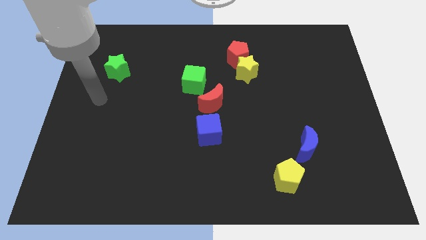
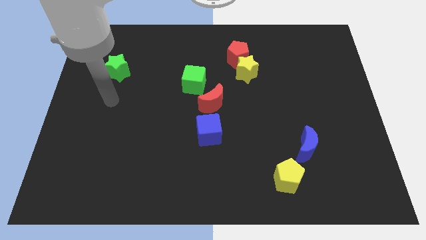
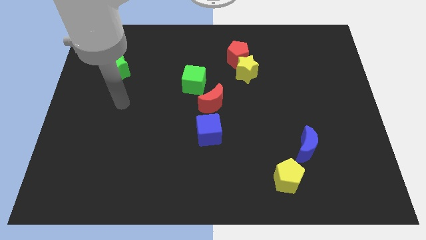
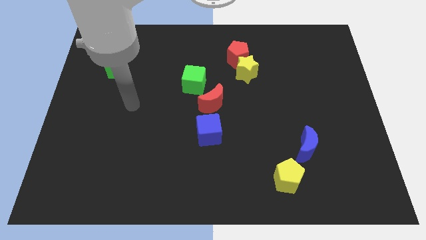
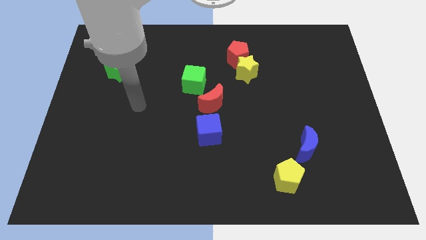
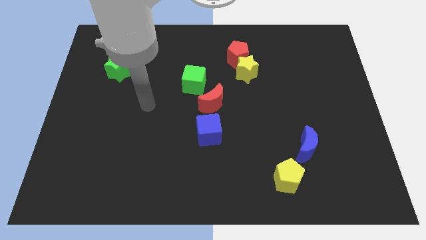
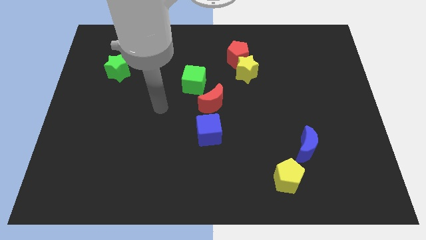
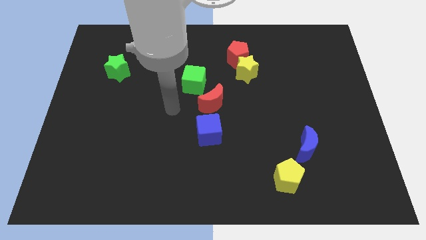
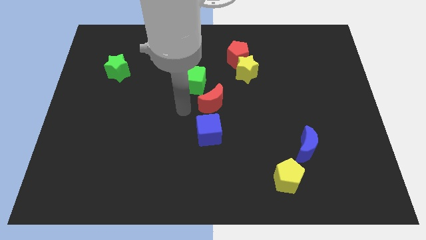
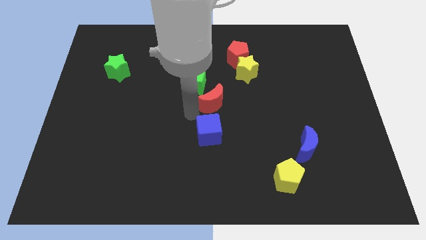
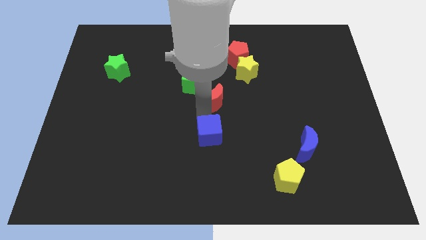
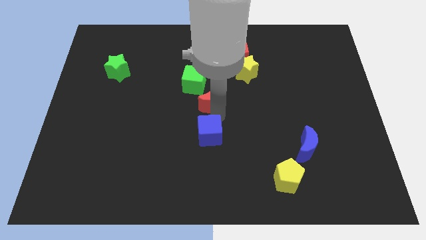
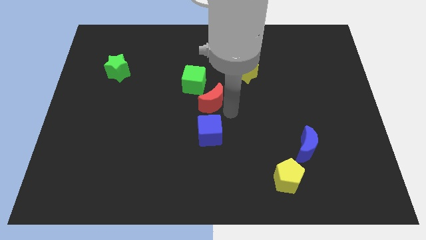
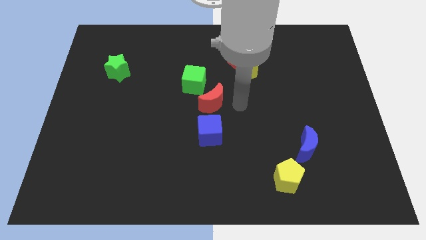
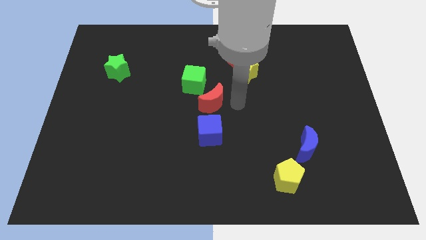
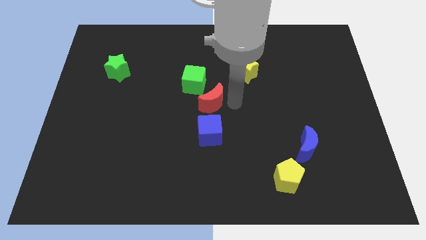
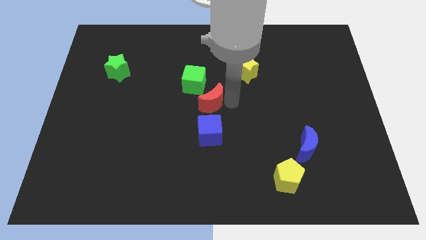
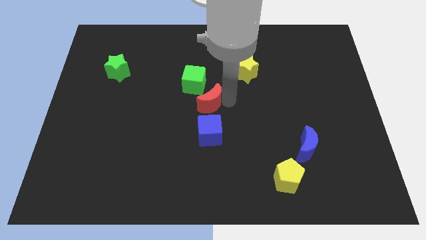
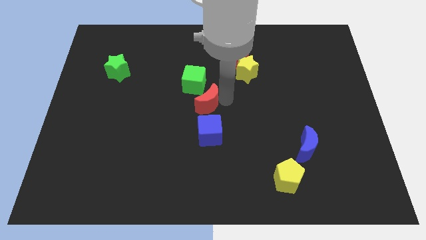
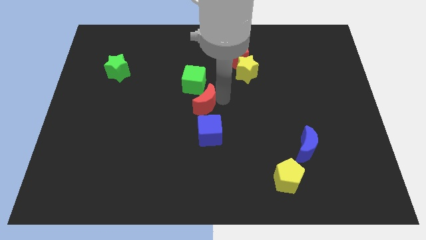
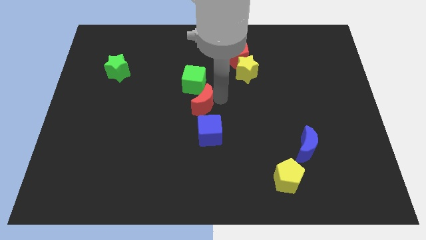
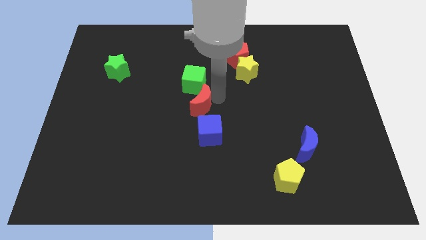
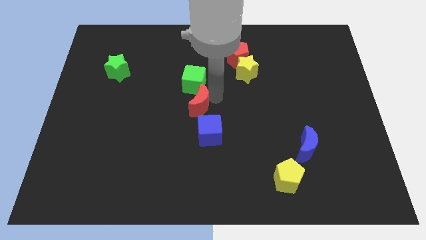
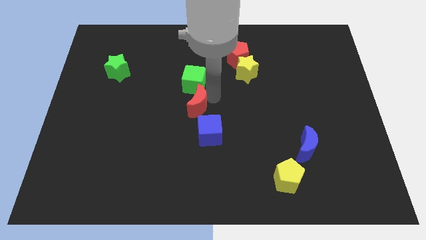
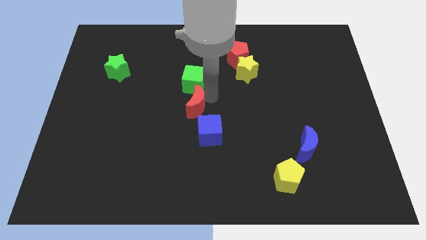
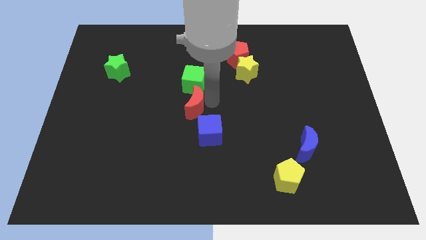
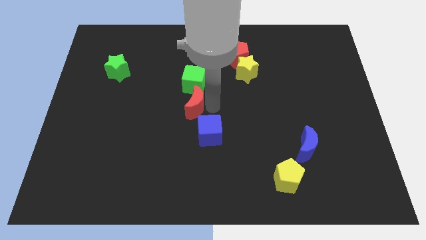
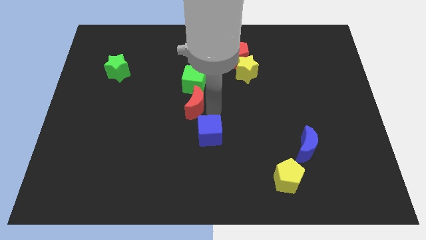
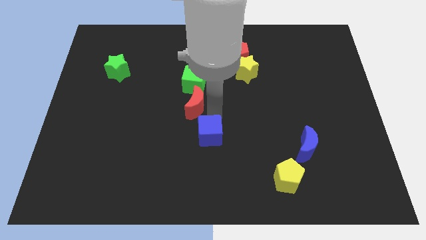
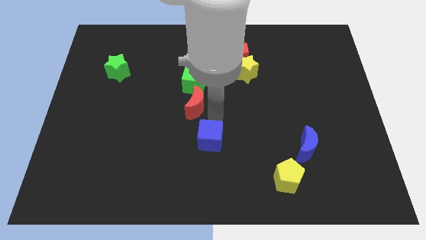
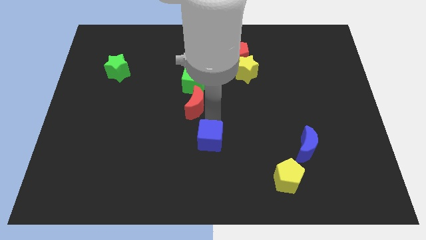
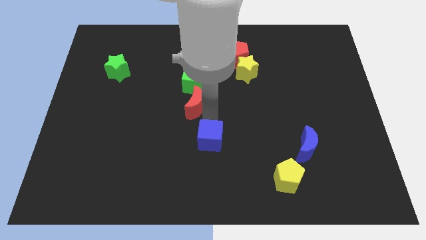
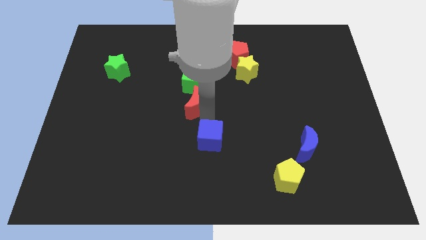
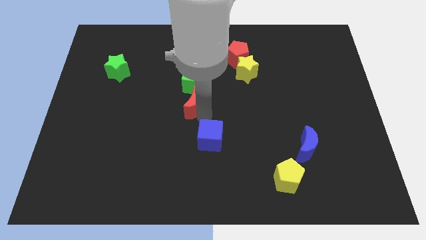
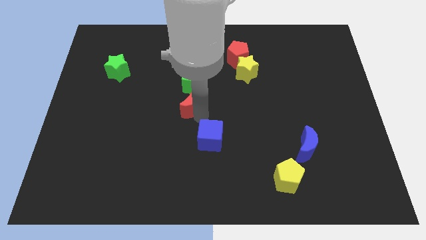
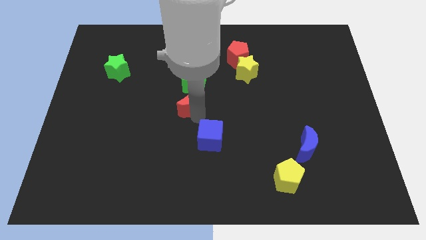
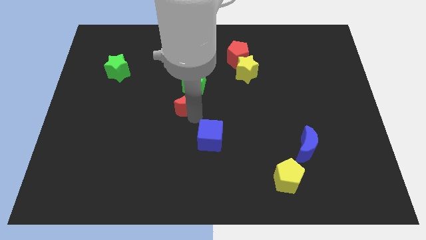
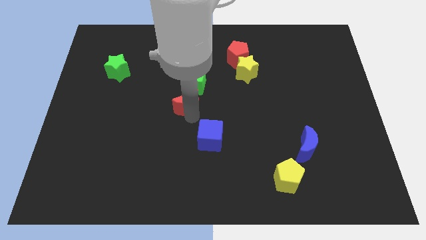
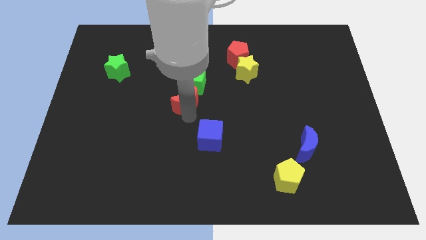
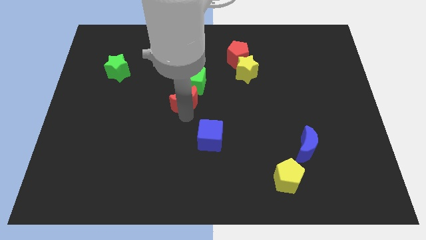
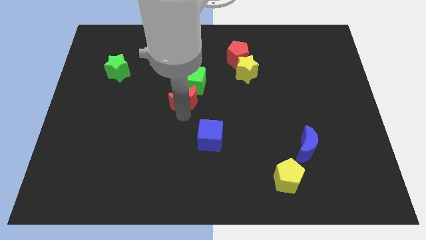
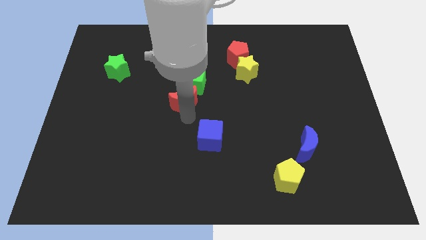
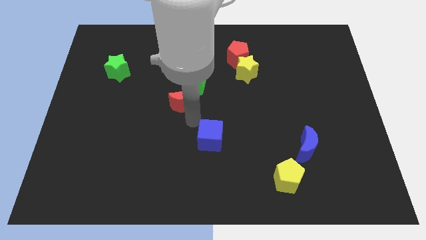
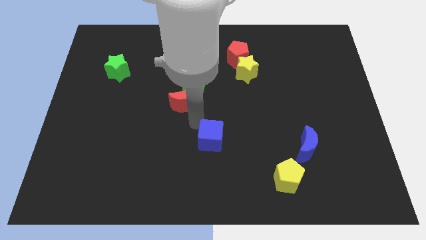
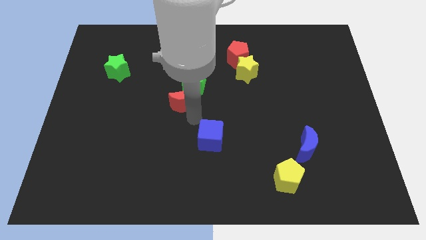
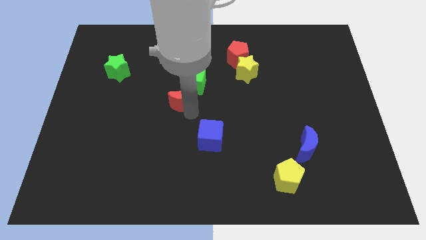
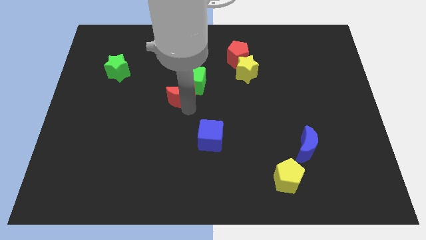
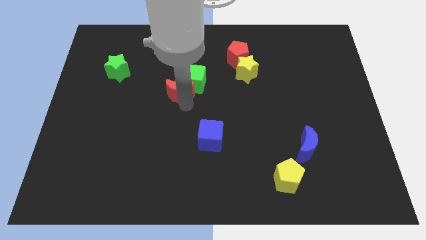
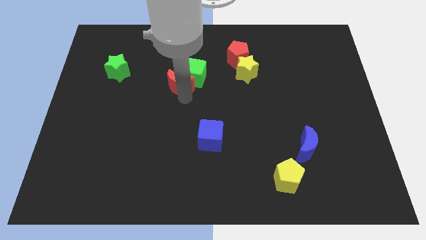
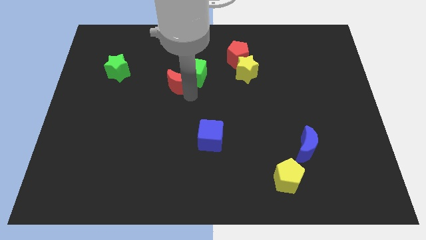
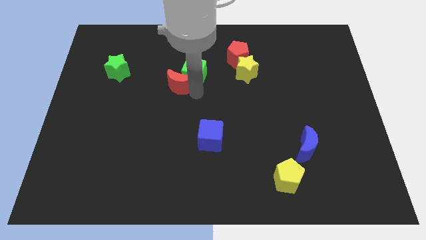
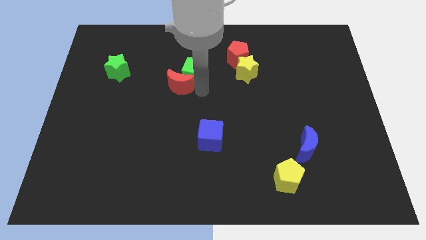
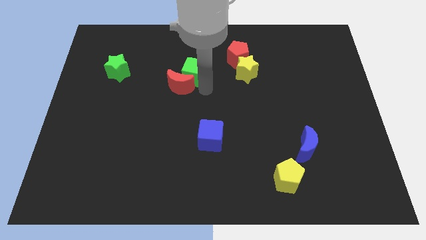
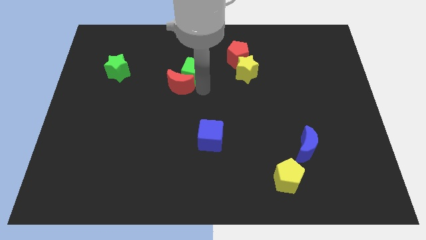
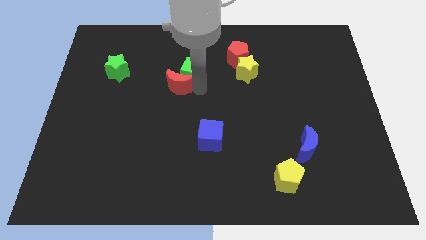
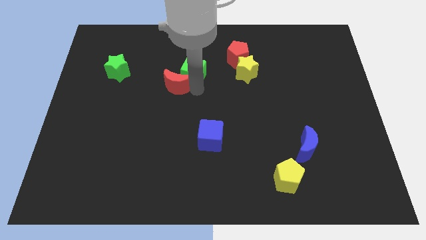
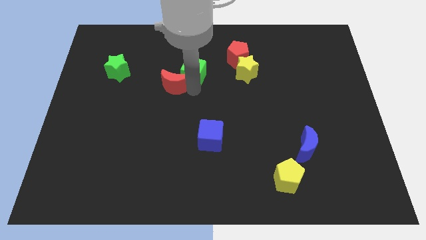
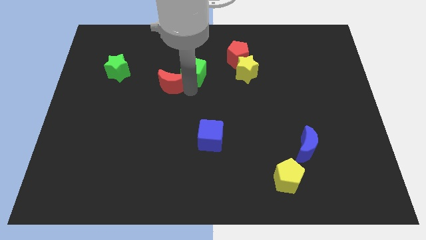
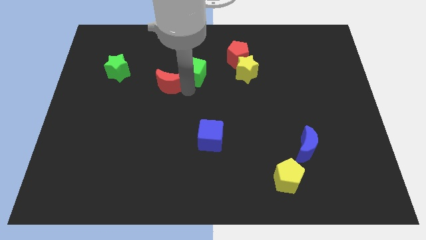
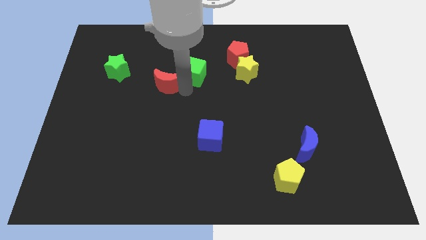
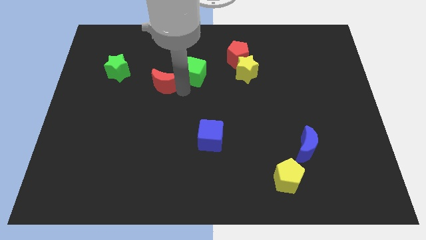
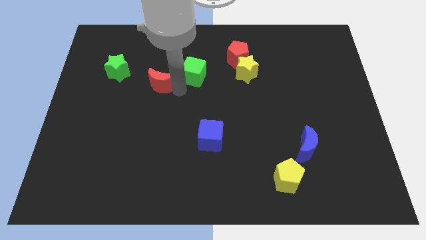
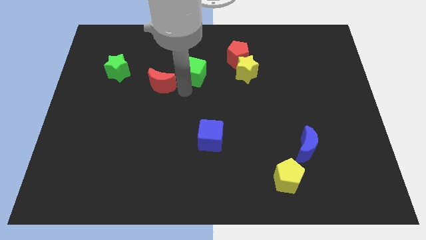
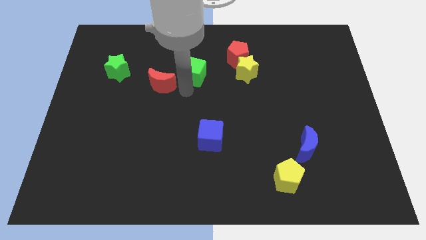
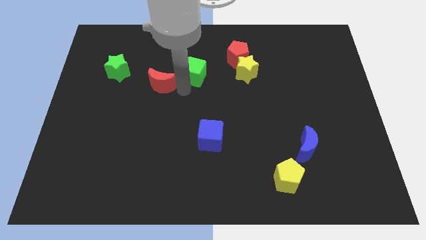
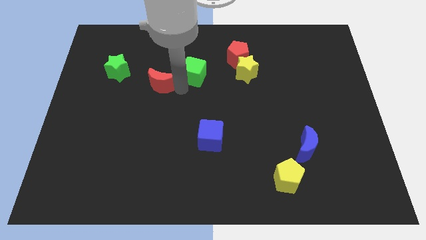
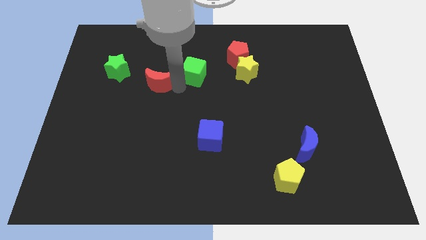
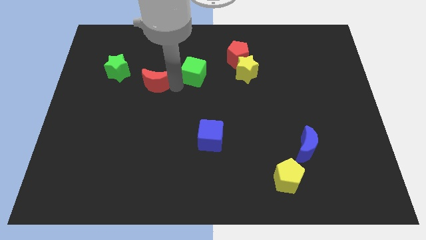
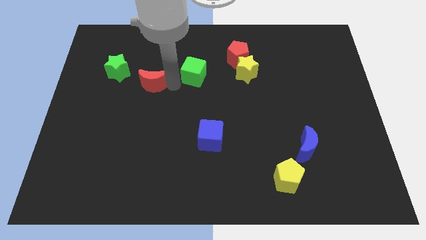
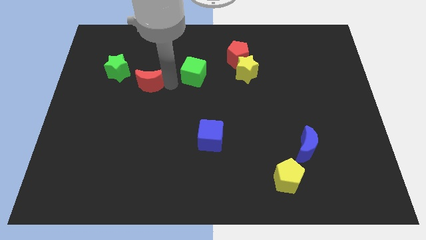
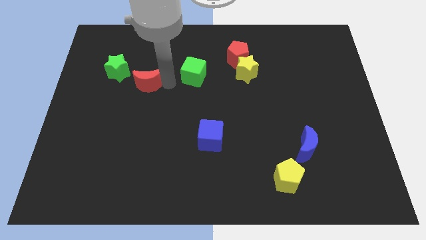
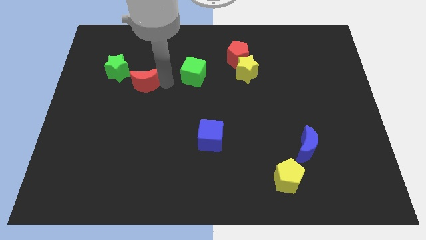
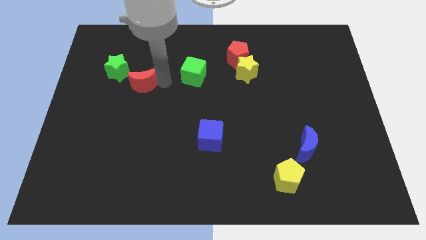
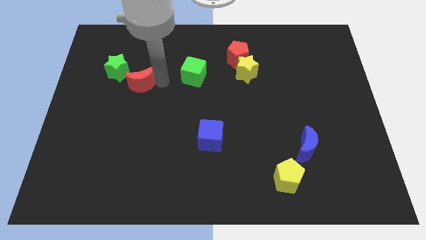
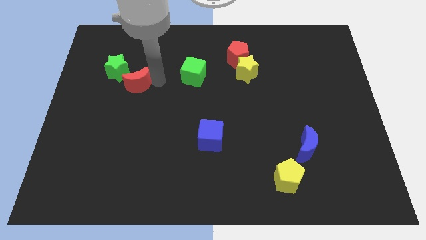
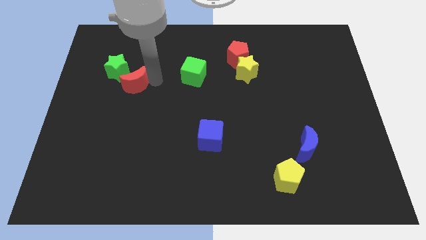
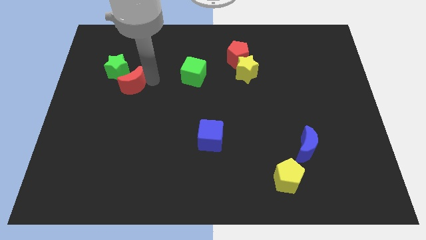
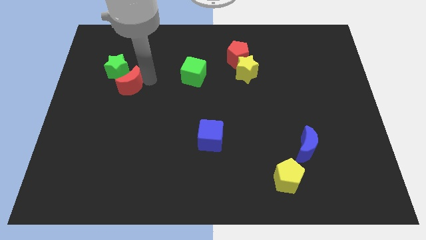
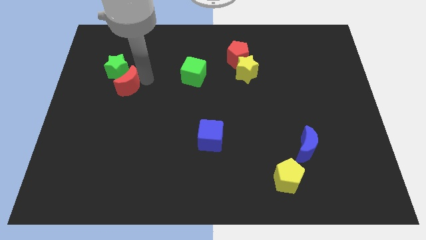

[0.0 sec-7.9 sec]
slide the red moon next to the green star
